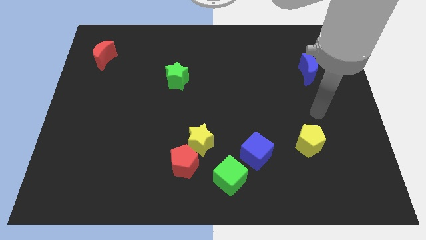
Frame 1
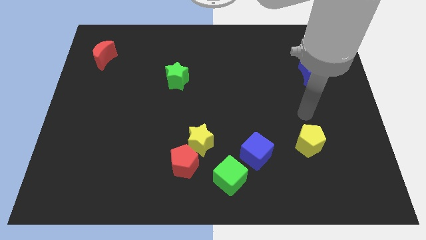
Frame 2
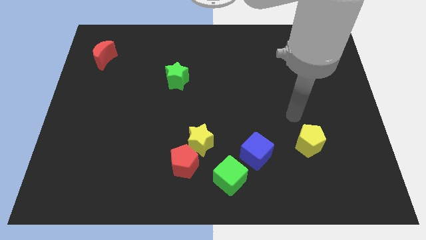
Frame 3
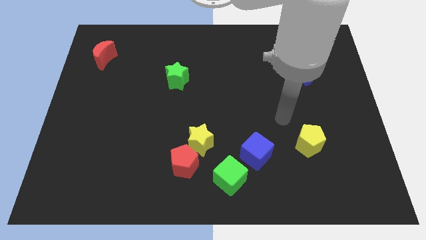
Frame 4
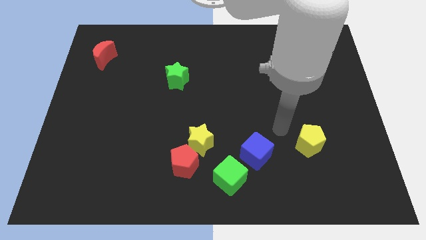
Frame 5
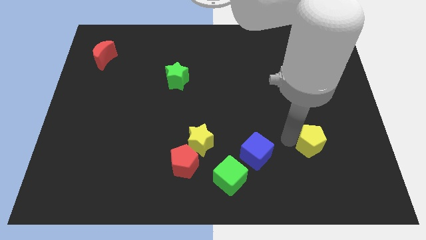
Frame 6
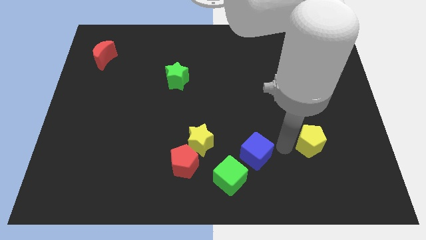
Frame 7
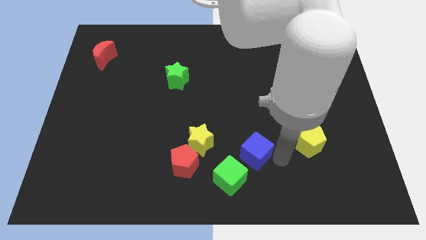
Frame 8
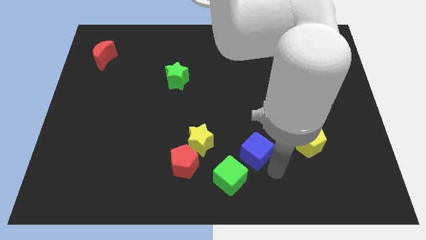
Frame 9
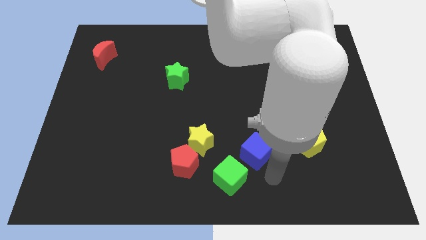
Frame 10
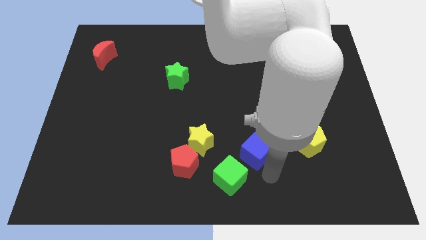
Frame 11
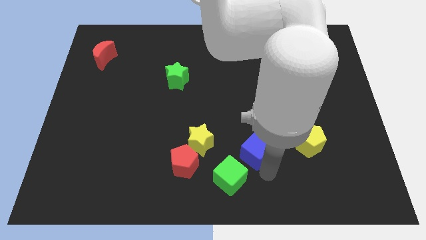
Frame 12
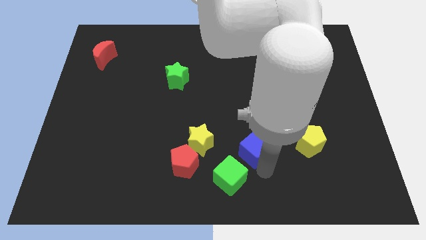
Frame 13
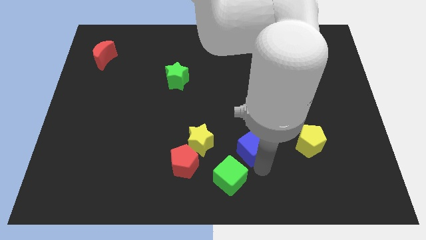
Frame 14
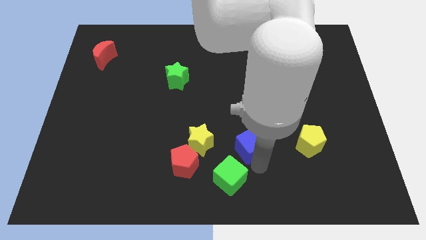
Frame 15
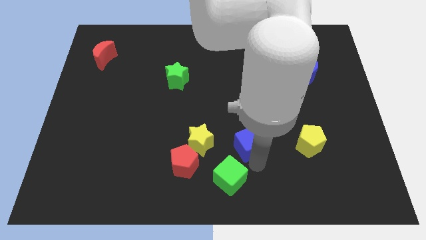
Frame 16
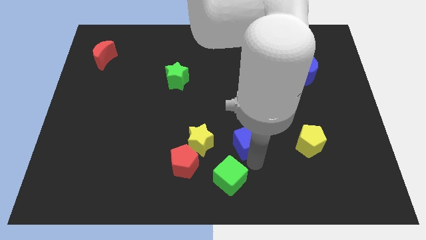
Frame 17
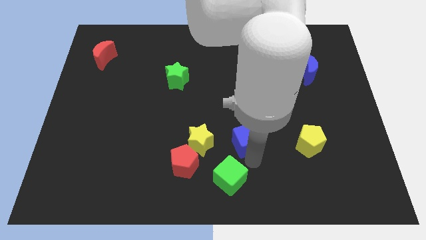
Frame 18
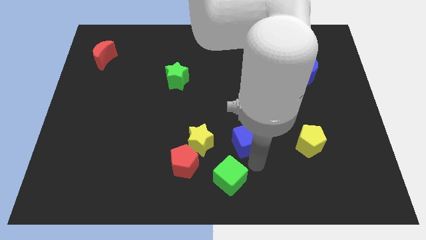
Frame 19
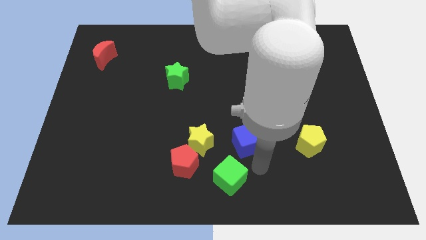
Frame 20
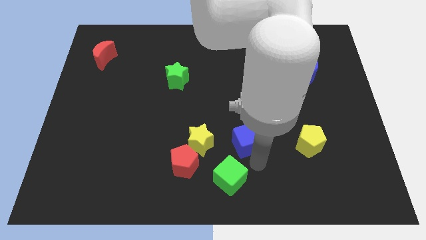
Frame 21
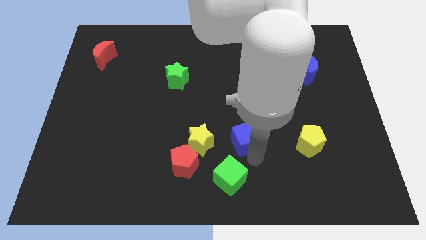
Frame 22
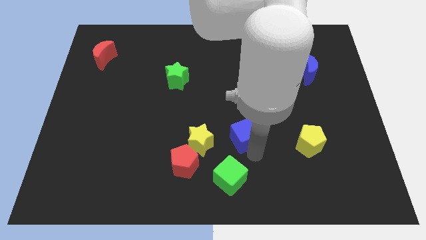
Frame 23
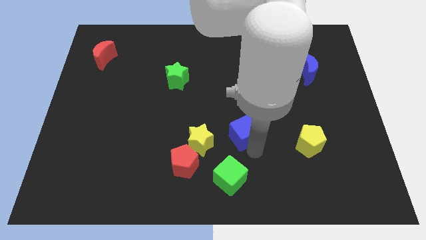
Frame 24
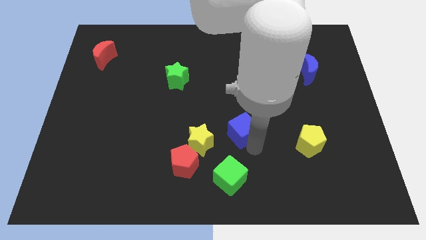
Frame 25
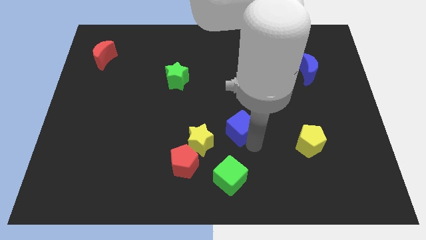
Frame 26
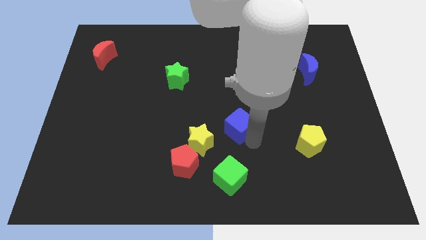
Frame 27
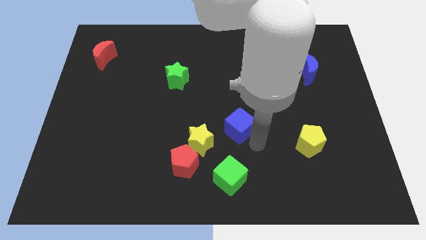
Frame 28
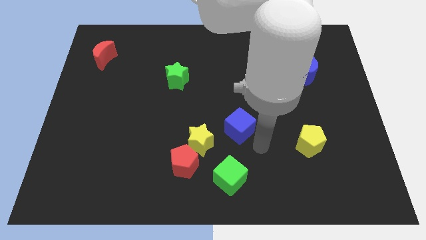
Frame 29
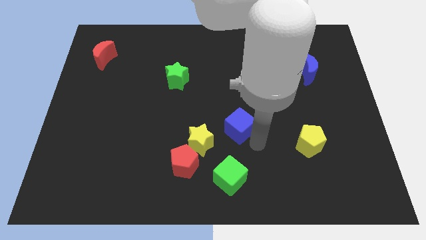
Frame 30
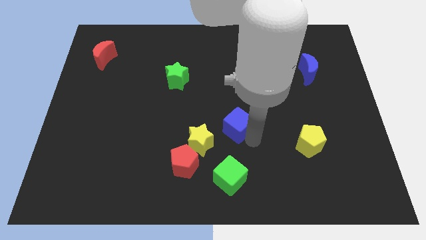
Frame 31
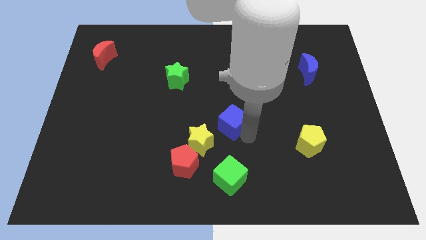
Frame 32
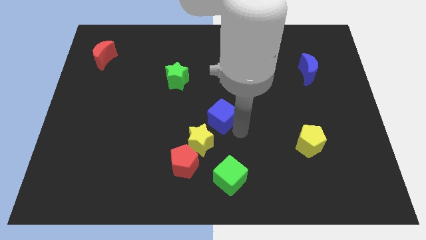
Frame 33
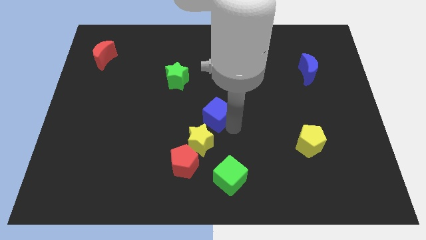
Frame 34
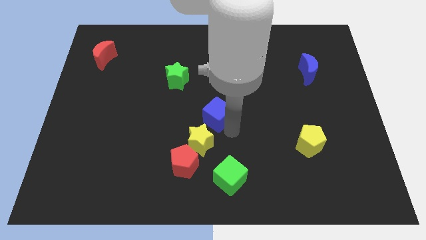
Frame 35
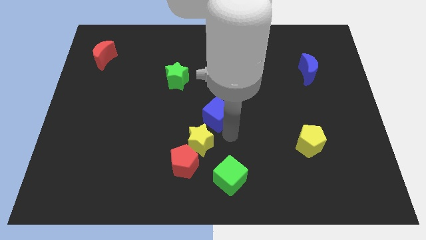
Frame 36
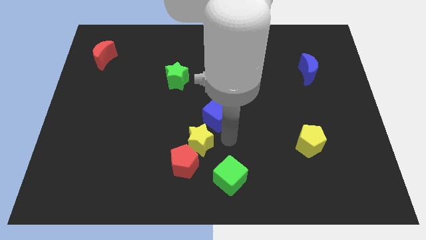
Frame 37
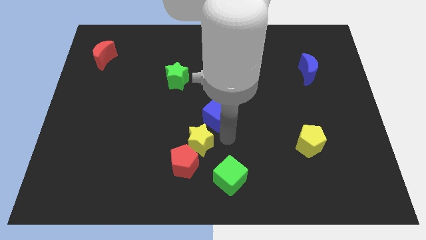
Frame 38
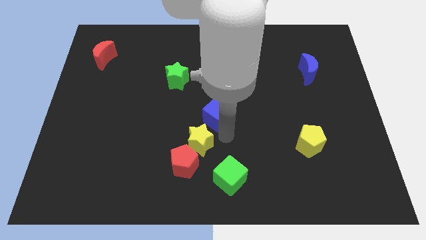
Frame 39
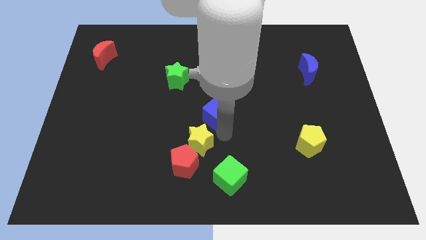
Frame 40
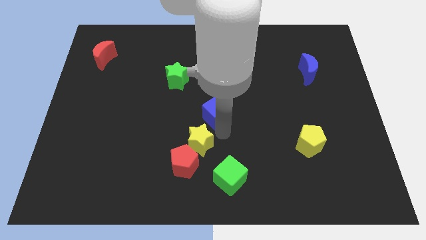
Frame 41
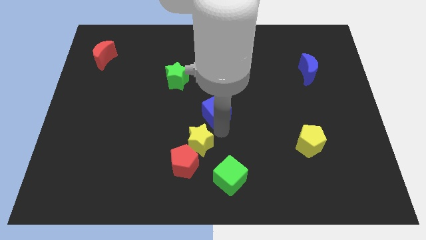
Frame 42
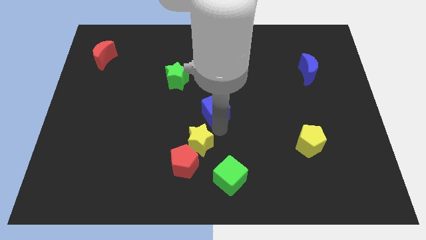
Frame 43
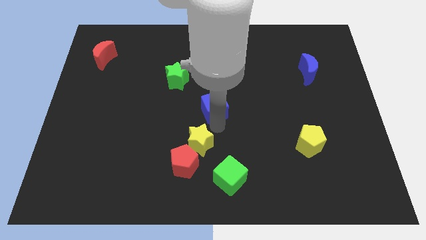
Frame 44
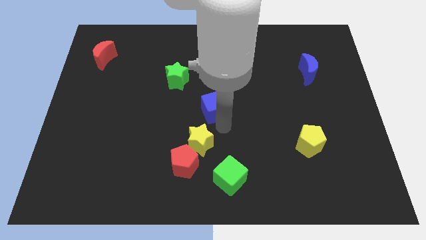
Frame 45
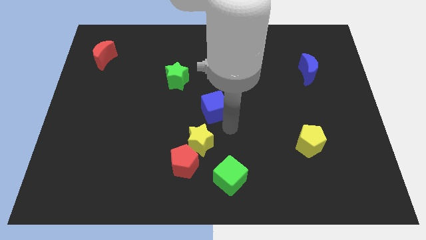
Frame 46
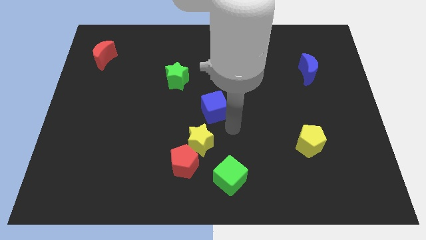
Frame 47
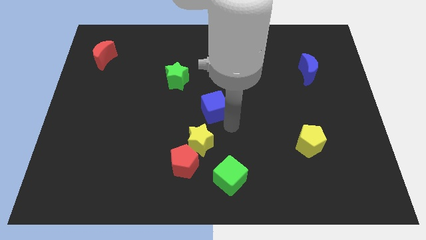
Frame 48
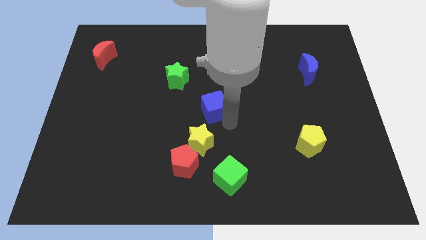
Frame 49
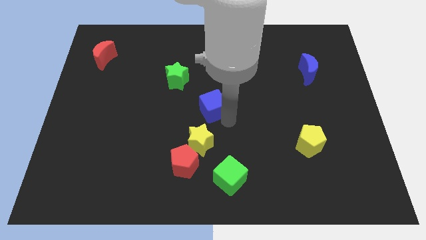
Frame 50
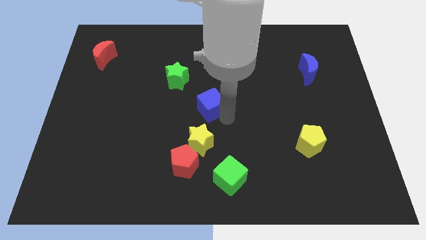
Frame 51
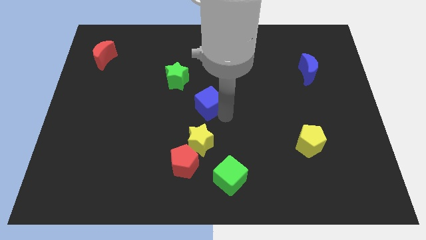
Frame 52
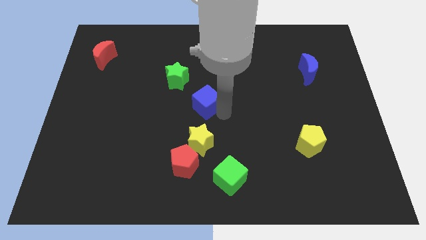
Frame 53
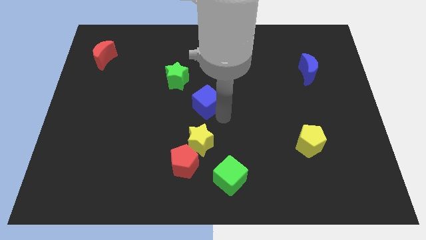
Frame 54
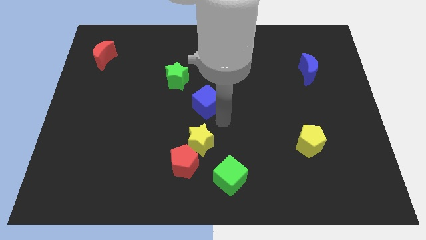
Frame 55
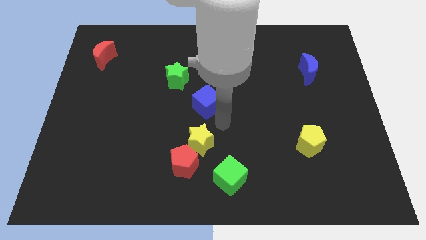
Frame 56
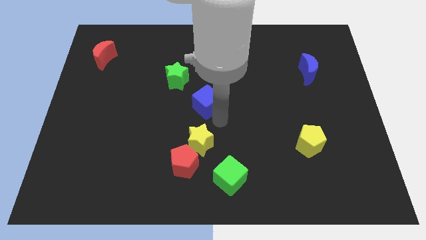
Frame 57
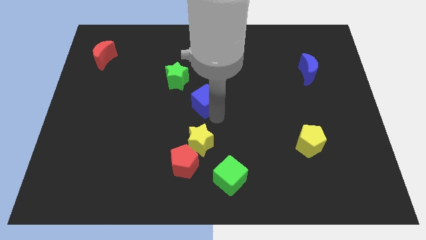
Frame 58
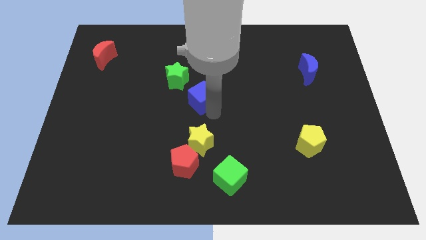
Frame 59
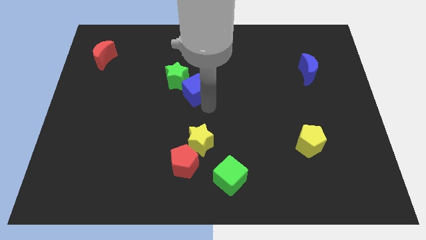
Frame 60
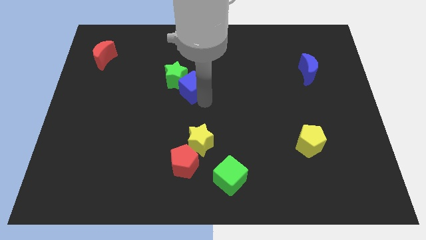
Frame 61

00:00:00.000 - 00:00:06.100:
push the blue cube towards the green star

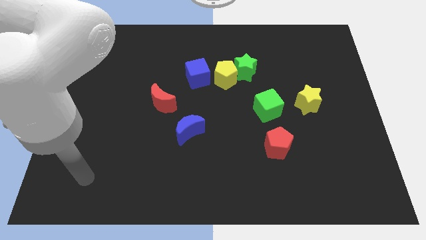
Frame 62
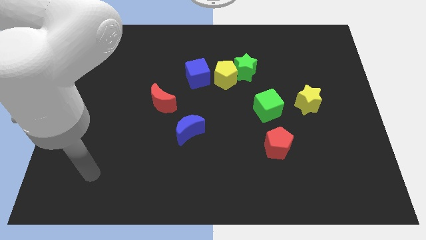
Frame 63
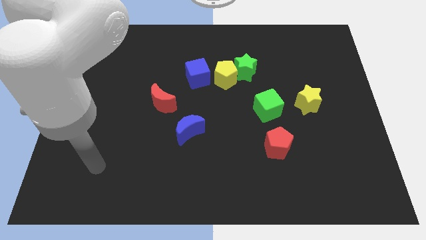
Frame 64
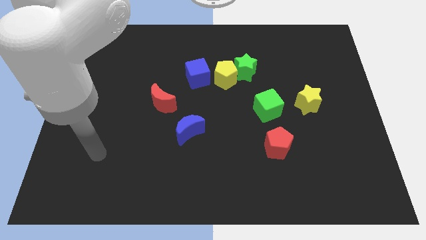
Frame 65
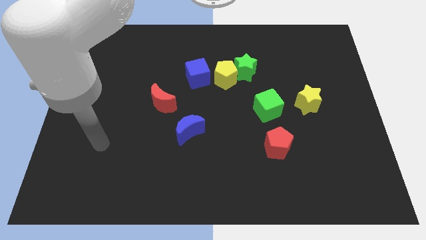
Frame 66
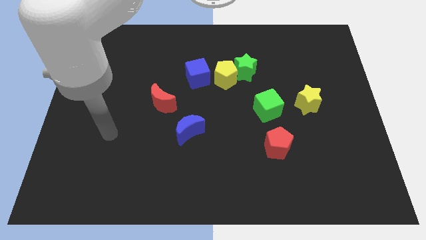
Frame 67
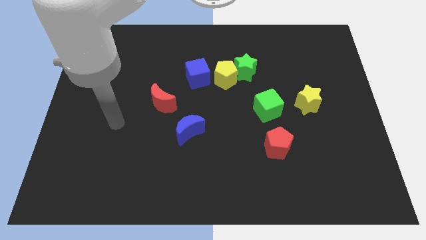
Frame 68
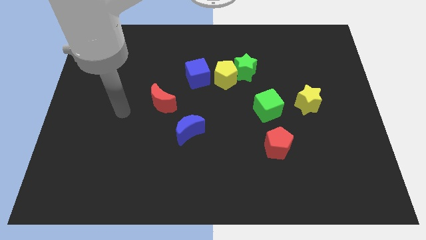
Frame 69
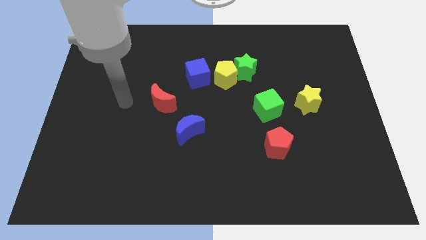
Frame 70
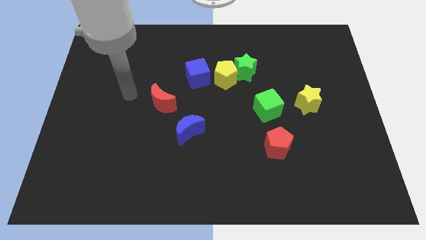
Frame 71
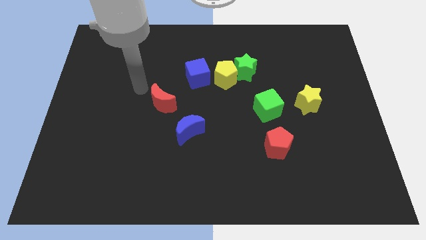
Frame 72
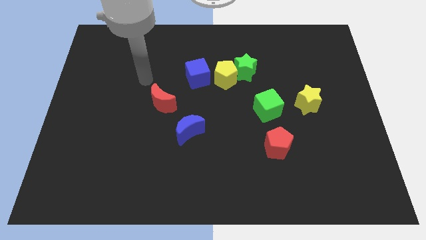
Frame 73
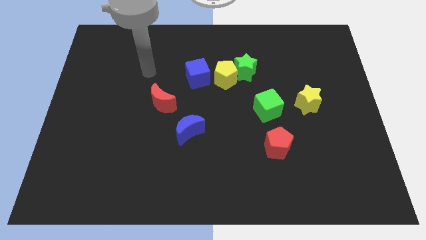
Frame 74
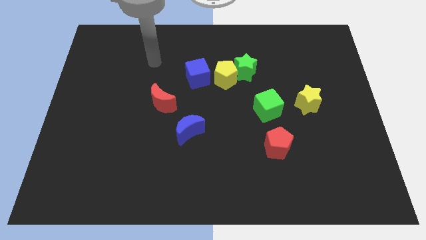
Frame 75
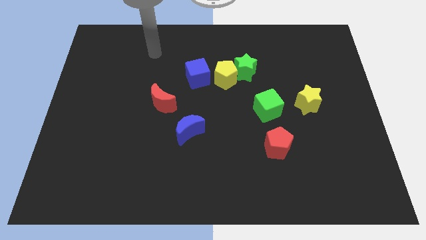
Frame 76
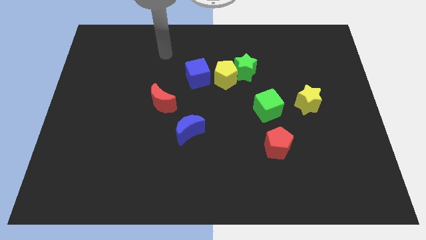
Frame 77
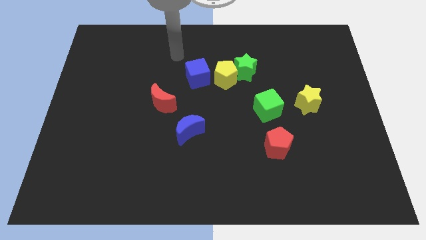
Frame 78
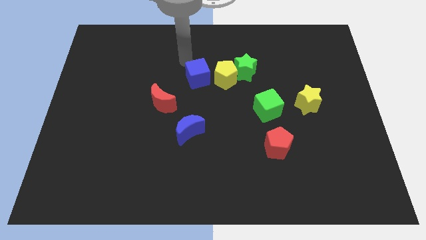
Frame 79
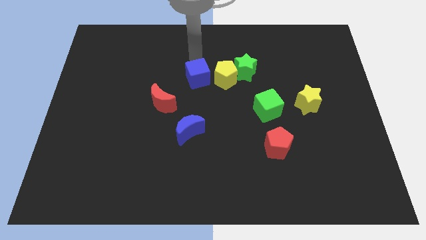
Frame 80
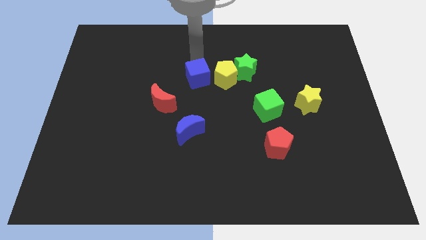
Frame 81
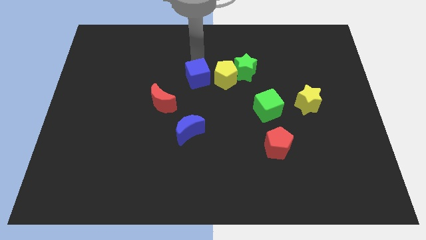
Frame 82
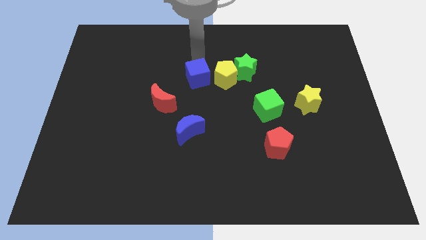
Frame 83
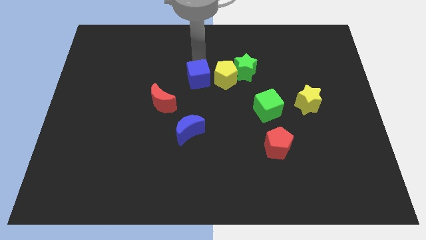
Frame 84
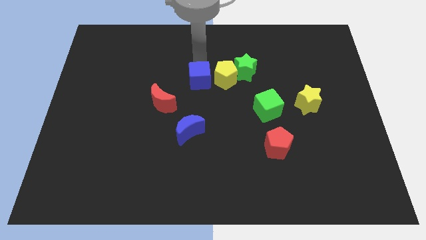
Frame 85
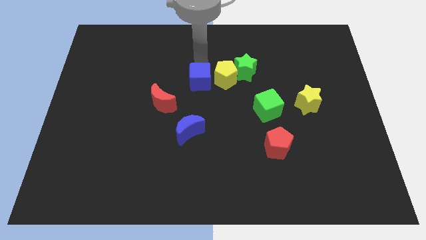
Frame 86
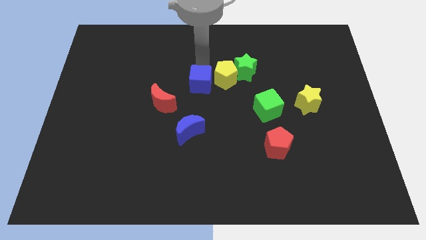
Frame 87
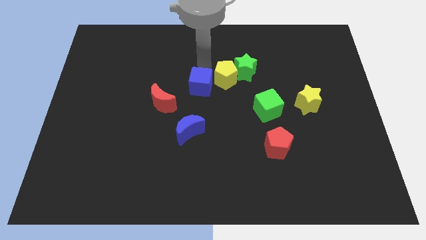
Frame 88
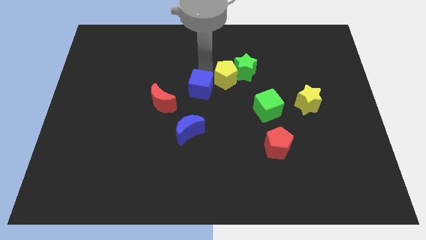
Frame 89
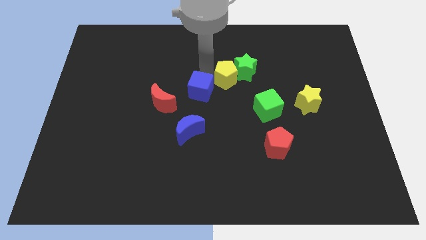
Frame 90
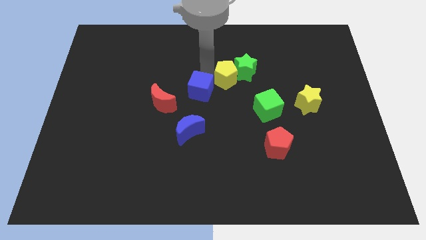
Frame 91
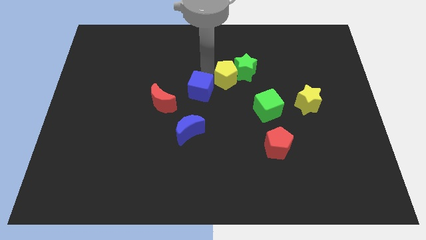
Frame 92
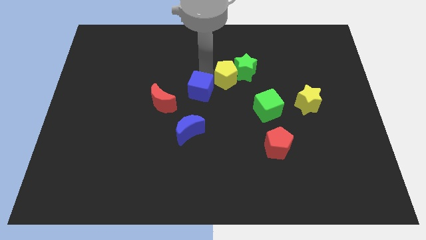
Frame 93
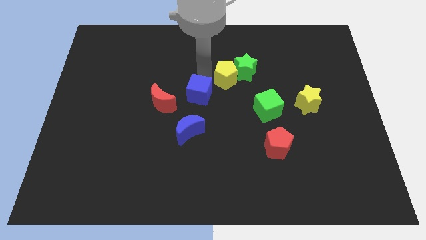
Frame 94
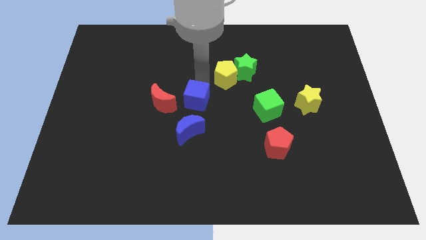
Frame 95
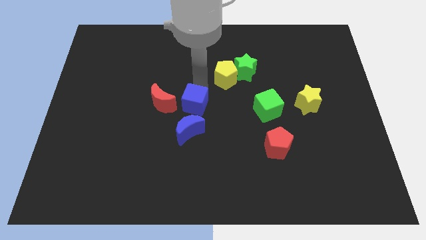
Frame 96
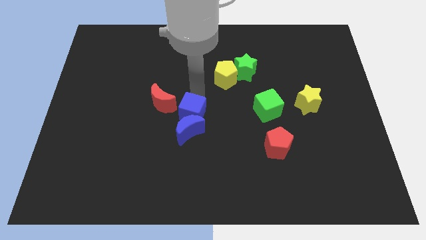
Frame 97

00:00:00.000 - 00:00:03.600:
put the blue cube next to the blue moon
